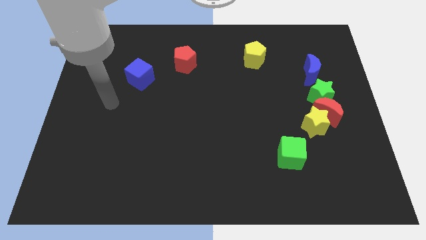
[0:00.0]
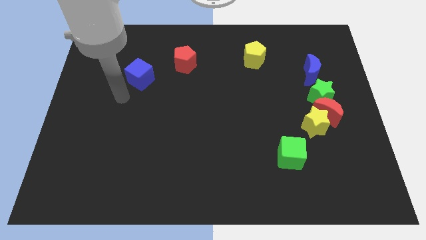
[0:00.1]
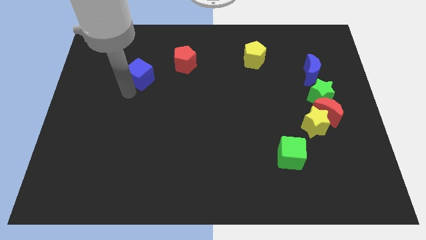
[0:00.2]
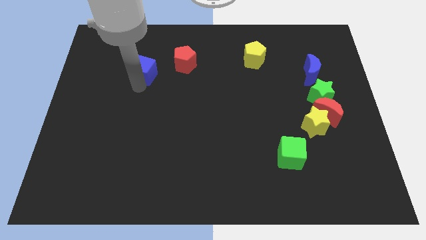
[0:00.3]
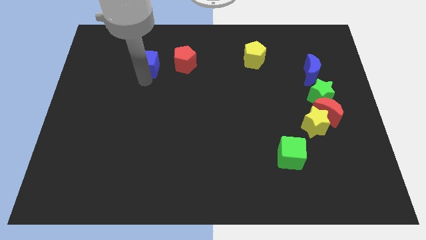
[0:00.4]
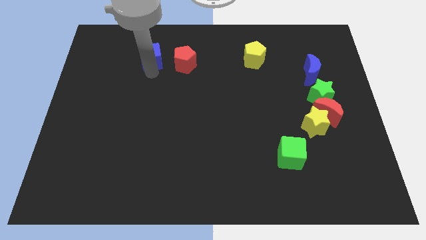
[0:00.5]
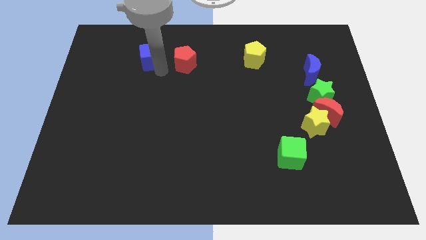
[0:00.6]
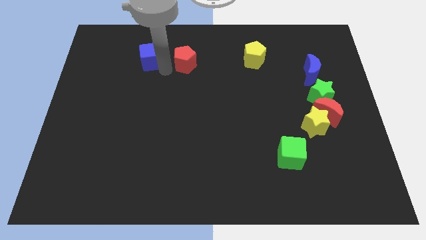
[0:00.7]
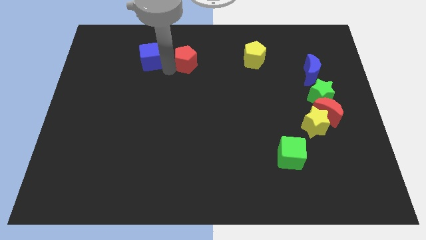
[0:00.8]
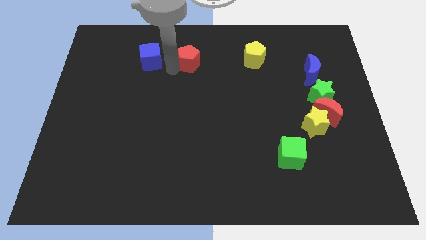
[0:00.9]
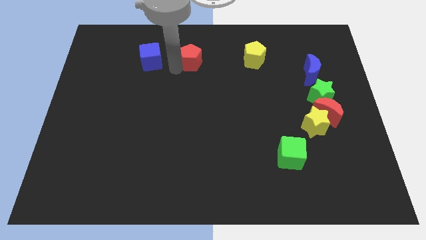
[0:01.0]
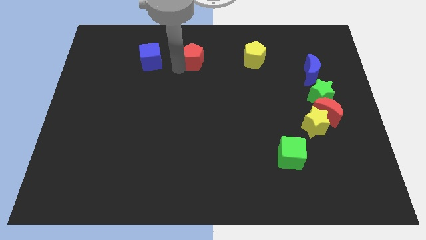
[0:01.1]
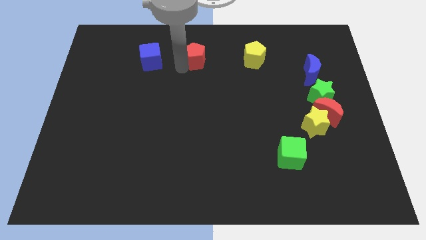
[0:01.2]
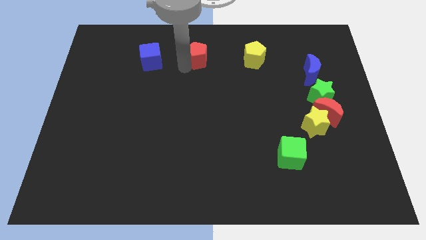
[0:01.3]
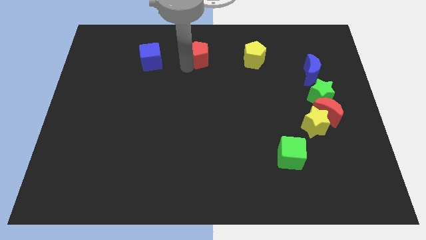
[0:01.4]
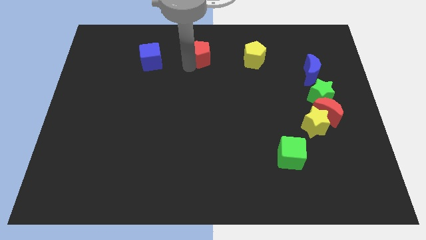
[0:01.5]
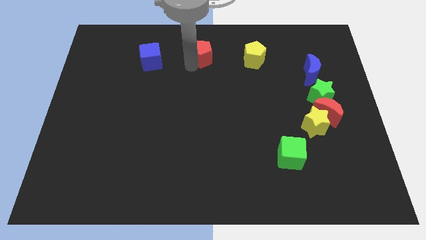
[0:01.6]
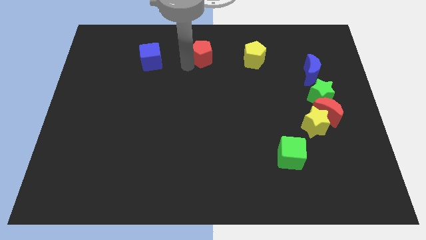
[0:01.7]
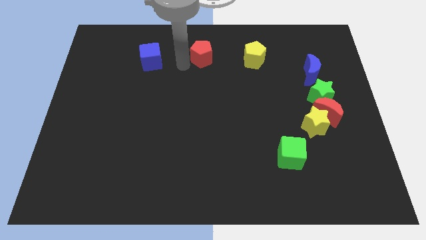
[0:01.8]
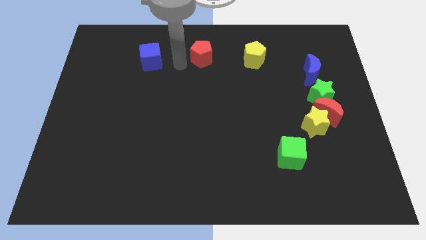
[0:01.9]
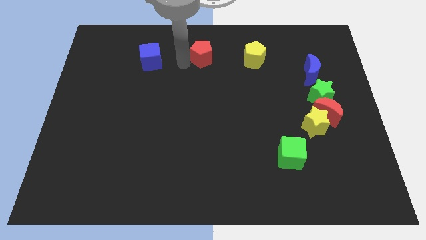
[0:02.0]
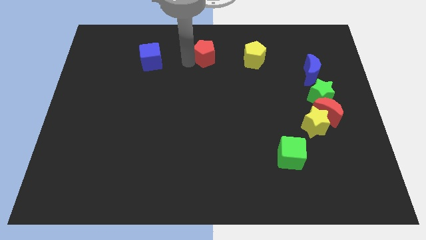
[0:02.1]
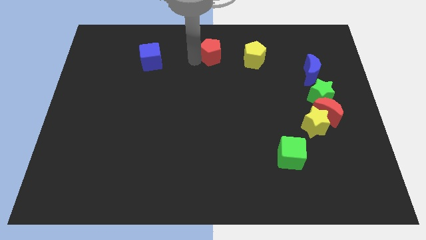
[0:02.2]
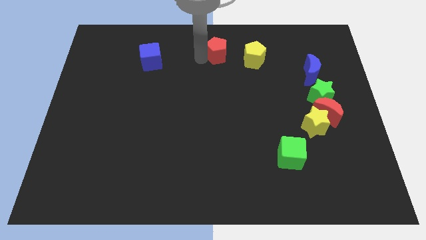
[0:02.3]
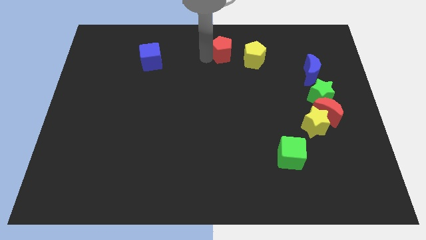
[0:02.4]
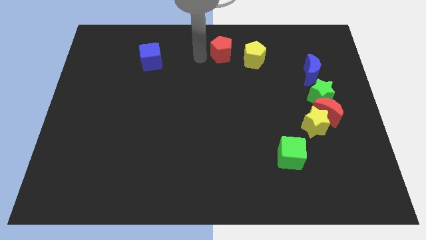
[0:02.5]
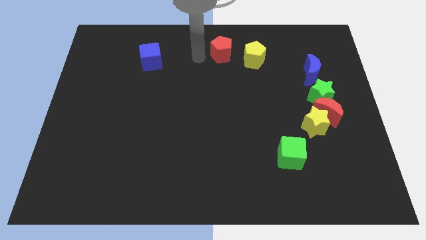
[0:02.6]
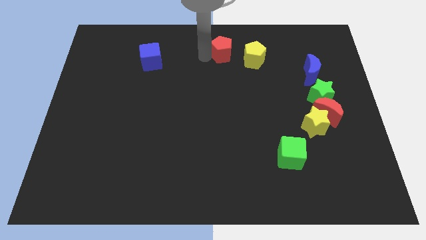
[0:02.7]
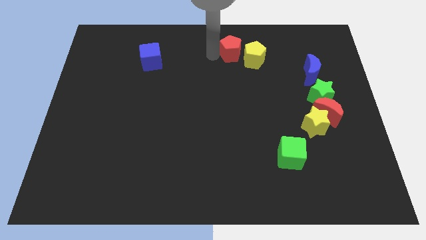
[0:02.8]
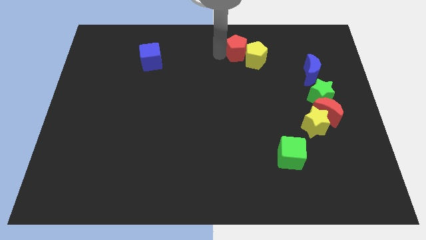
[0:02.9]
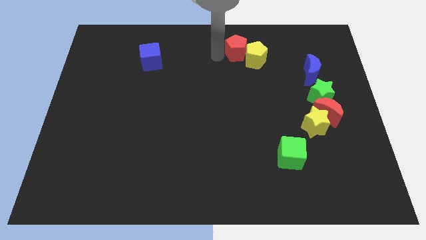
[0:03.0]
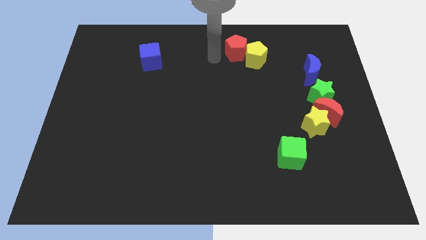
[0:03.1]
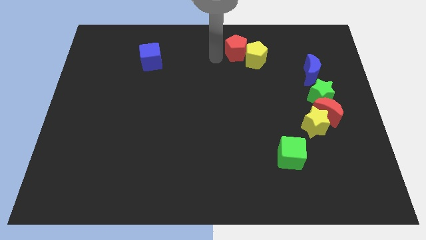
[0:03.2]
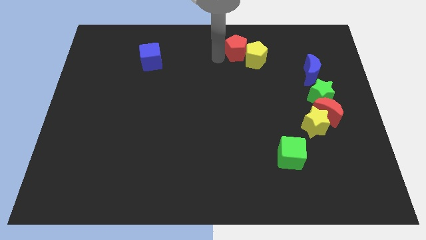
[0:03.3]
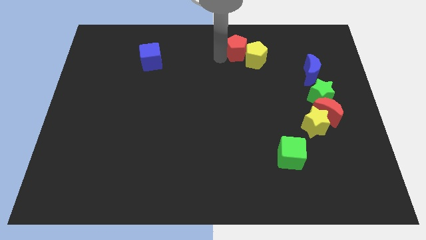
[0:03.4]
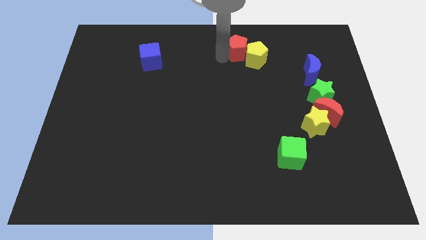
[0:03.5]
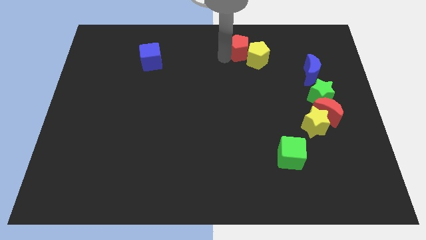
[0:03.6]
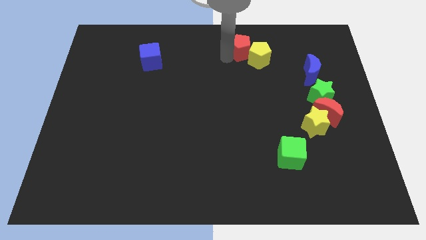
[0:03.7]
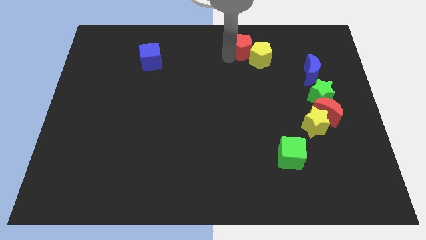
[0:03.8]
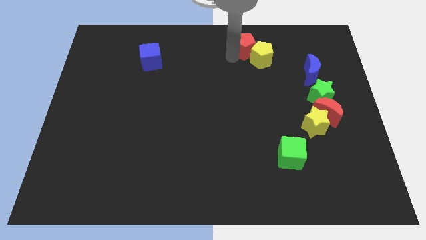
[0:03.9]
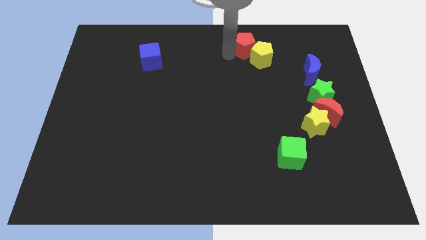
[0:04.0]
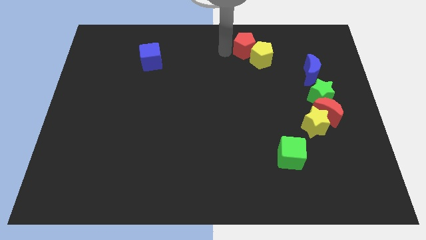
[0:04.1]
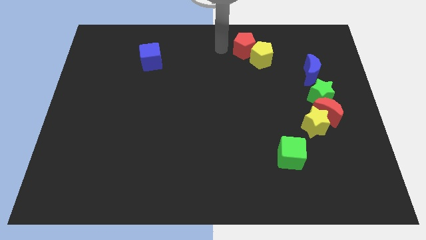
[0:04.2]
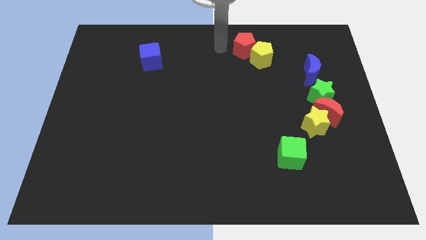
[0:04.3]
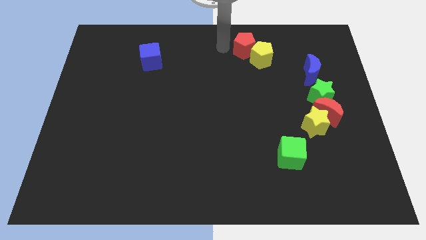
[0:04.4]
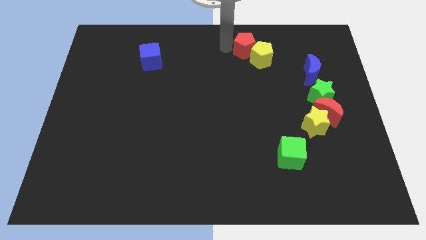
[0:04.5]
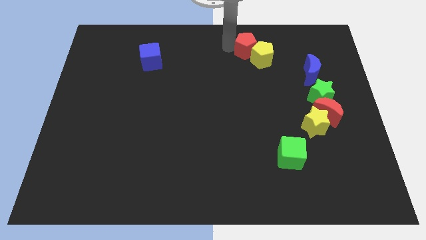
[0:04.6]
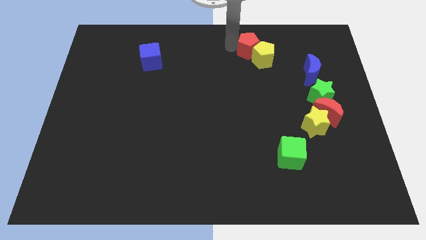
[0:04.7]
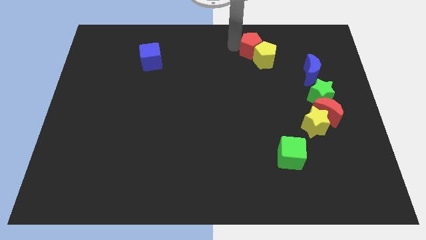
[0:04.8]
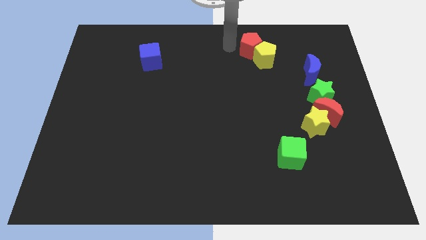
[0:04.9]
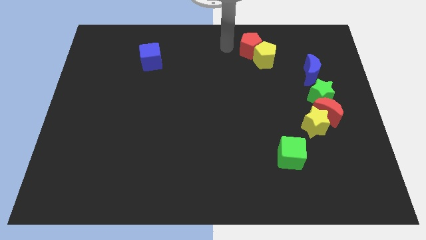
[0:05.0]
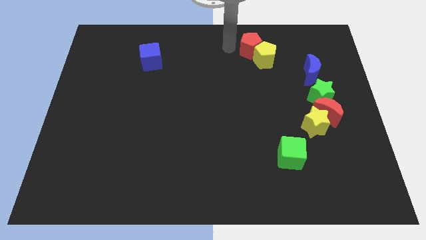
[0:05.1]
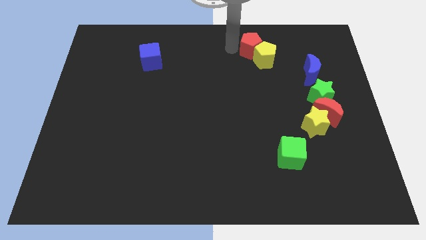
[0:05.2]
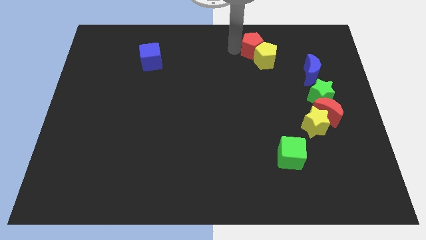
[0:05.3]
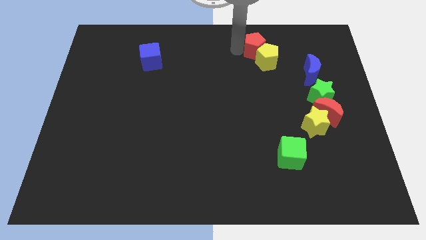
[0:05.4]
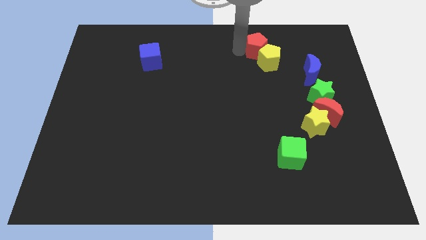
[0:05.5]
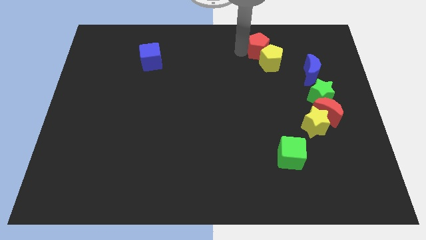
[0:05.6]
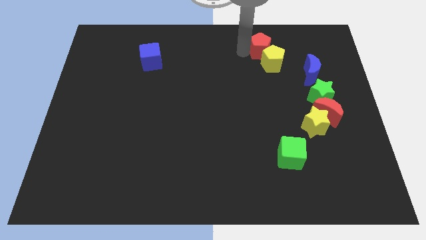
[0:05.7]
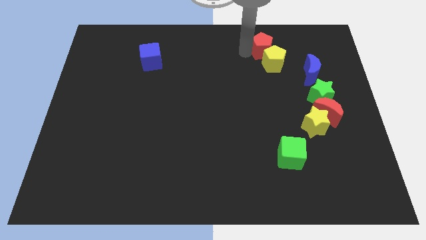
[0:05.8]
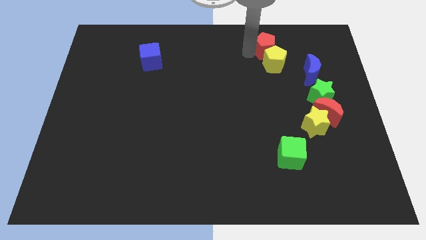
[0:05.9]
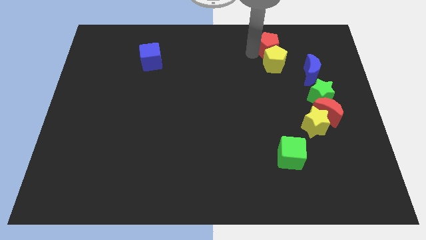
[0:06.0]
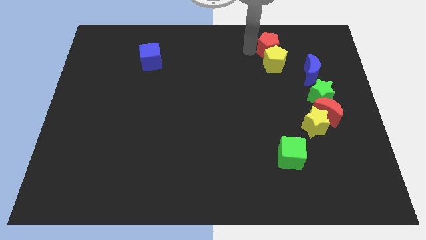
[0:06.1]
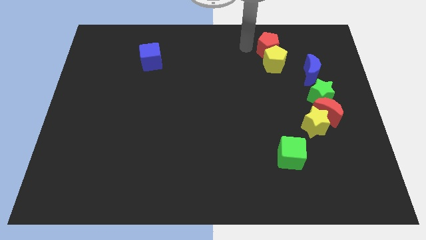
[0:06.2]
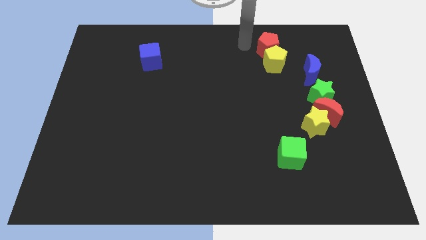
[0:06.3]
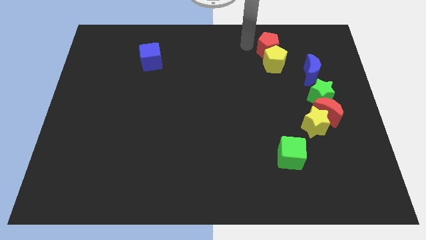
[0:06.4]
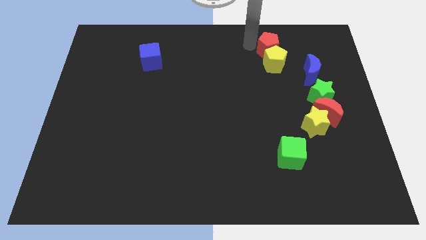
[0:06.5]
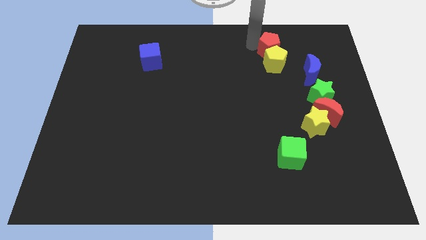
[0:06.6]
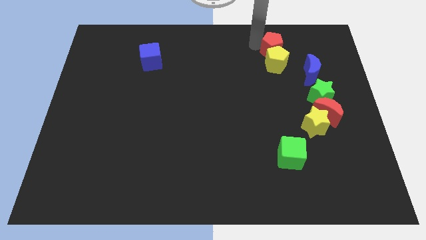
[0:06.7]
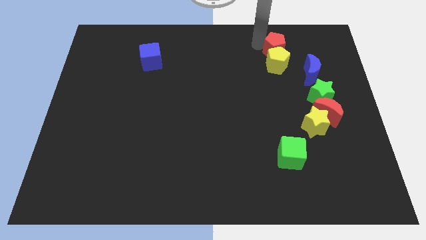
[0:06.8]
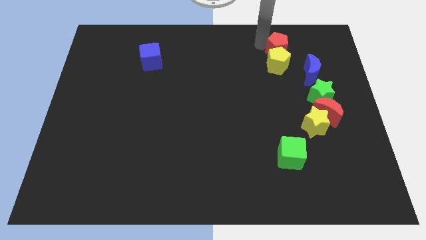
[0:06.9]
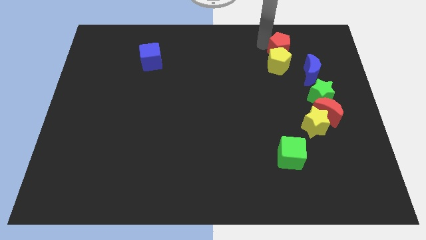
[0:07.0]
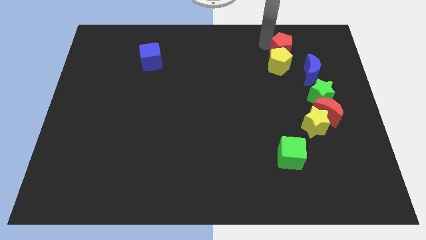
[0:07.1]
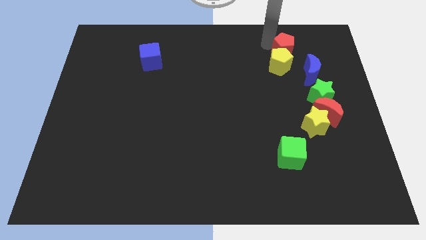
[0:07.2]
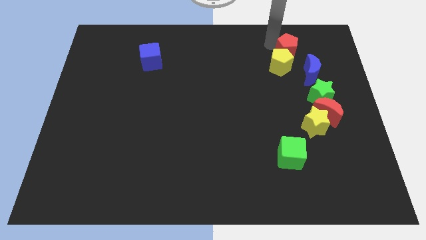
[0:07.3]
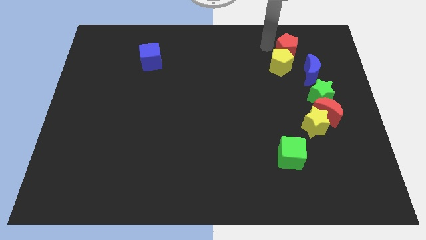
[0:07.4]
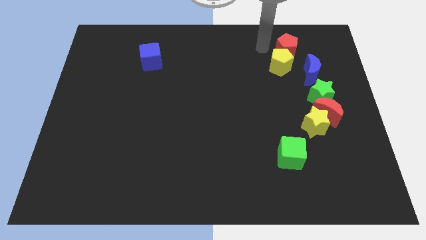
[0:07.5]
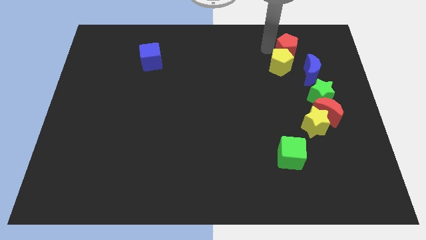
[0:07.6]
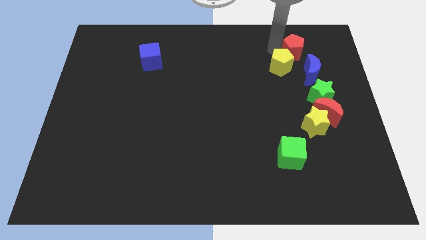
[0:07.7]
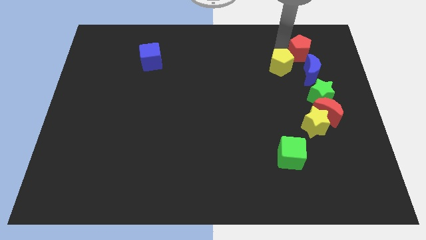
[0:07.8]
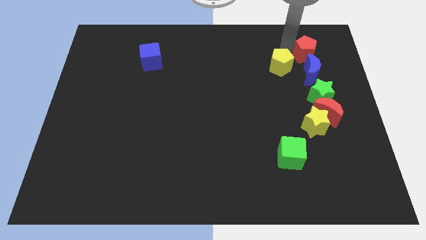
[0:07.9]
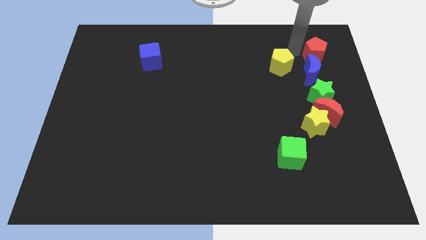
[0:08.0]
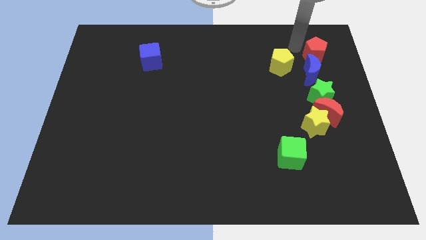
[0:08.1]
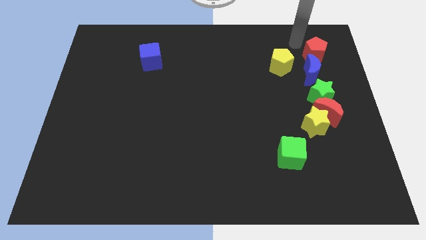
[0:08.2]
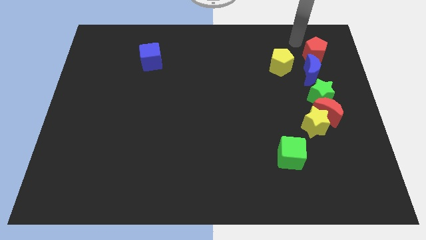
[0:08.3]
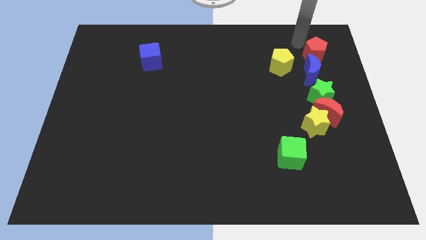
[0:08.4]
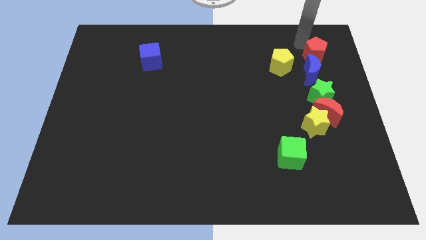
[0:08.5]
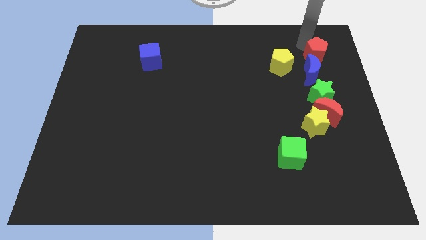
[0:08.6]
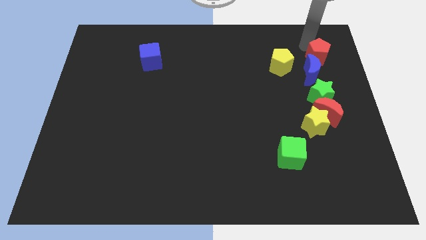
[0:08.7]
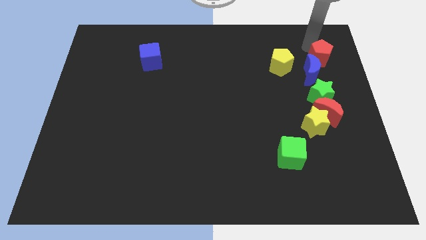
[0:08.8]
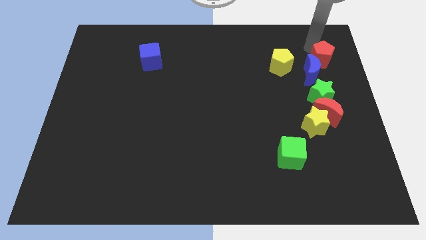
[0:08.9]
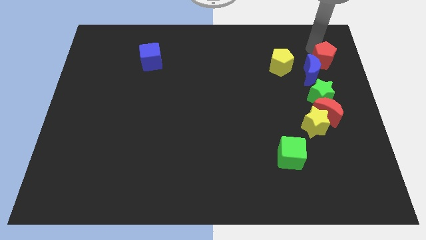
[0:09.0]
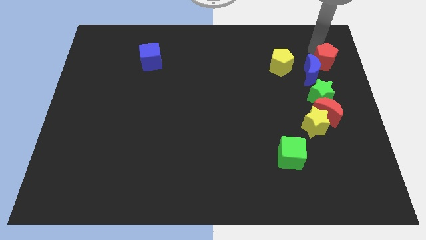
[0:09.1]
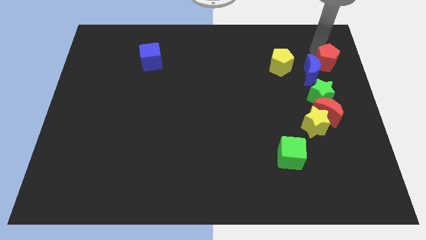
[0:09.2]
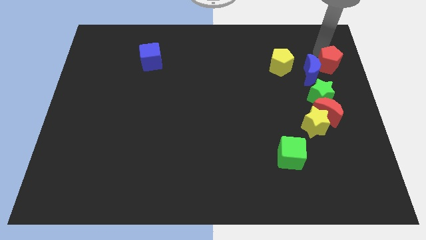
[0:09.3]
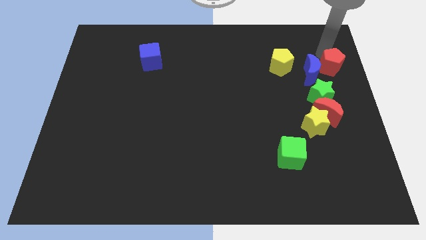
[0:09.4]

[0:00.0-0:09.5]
move the red pentagon to the center right
